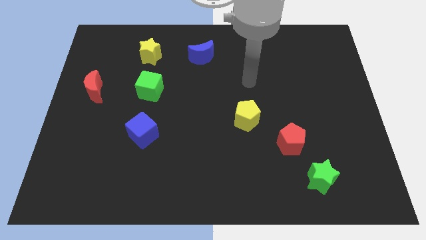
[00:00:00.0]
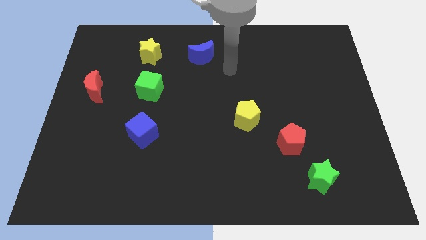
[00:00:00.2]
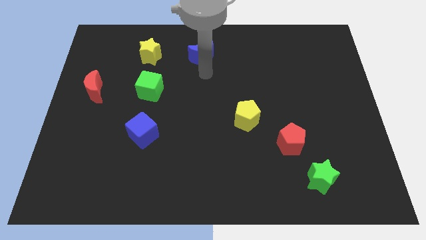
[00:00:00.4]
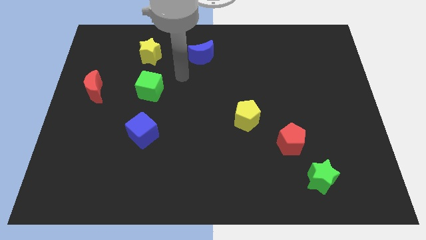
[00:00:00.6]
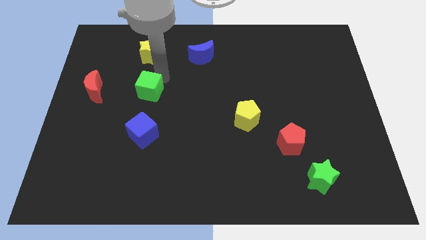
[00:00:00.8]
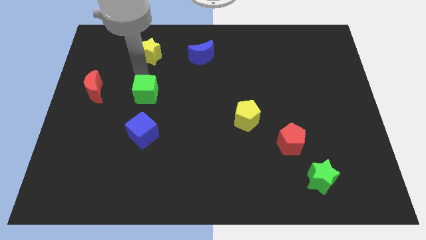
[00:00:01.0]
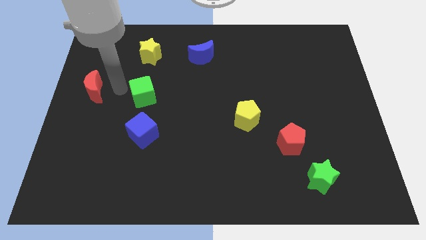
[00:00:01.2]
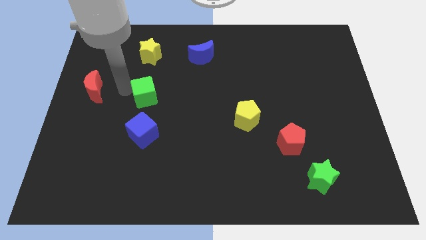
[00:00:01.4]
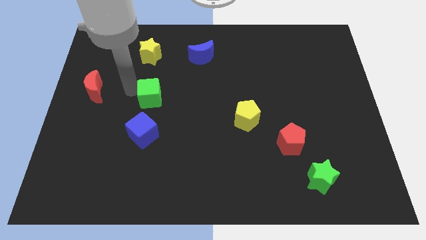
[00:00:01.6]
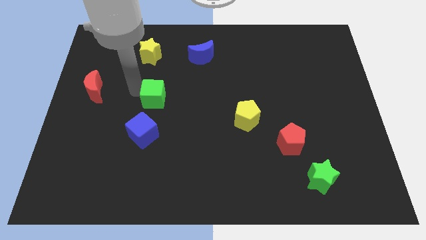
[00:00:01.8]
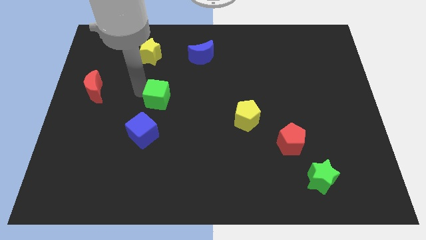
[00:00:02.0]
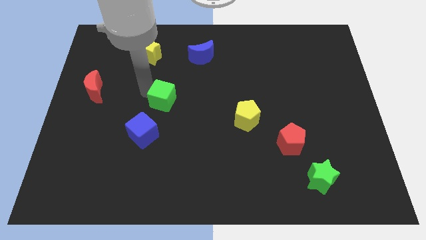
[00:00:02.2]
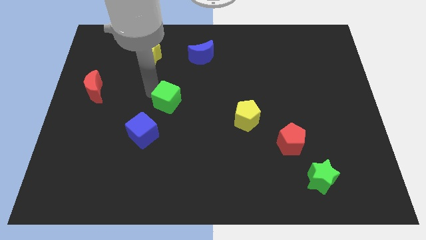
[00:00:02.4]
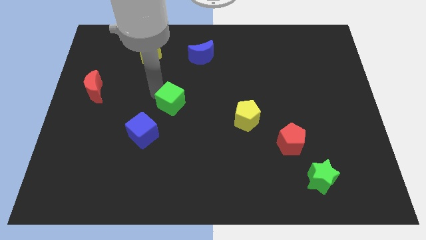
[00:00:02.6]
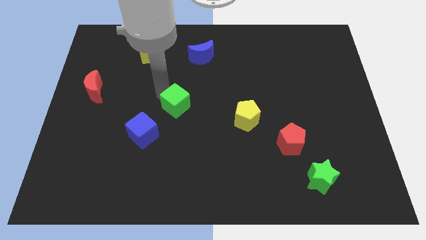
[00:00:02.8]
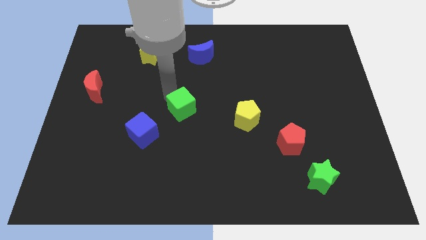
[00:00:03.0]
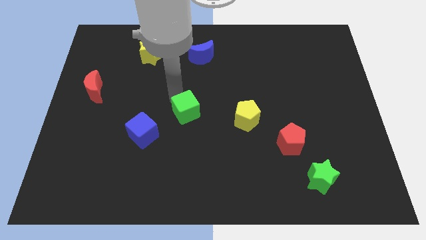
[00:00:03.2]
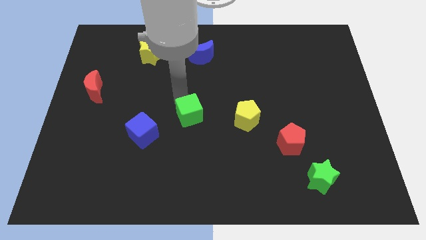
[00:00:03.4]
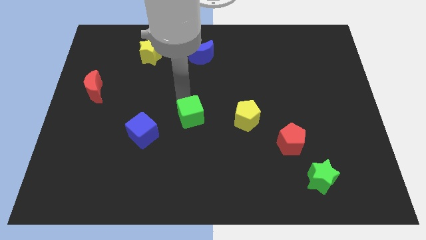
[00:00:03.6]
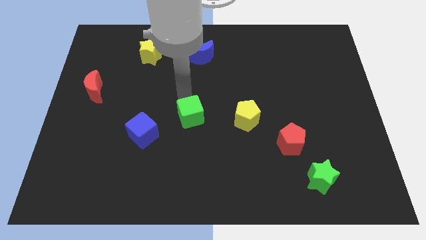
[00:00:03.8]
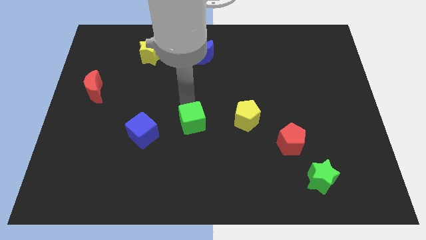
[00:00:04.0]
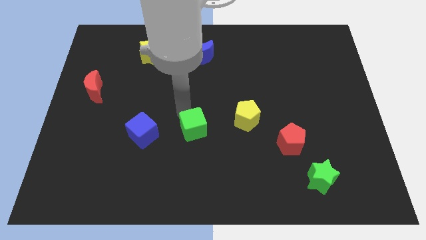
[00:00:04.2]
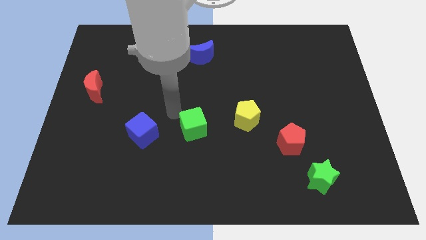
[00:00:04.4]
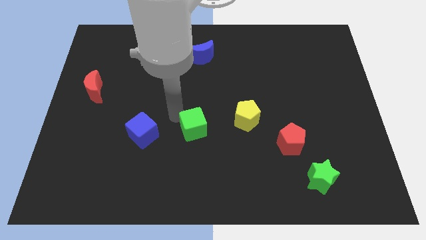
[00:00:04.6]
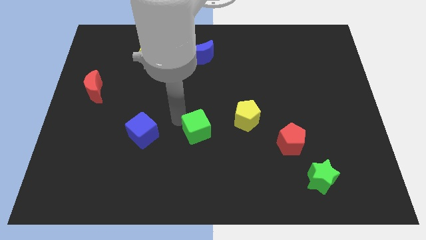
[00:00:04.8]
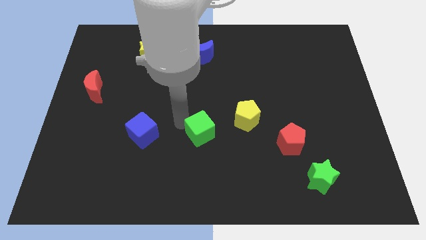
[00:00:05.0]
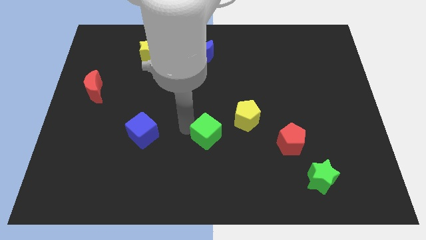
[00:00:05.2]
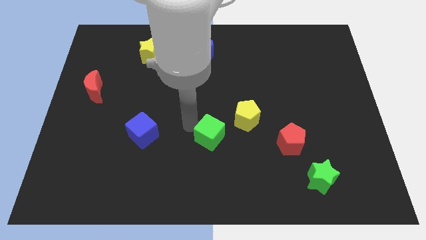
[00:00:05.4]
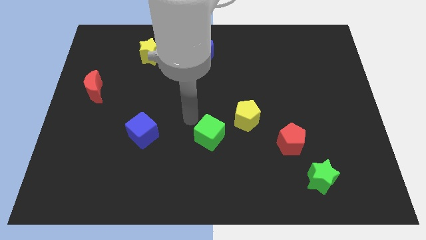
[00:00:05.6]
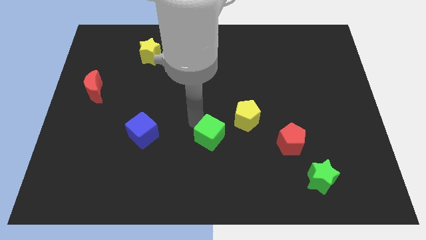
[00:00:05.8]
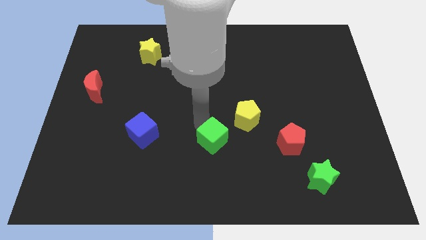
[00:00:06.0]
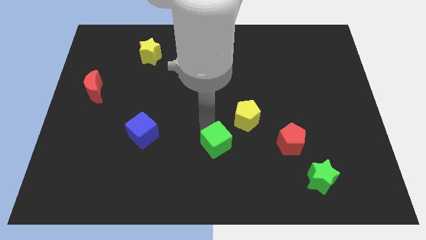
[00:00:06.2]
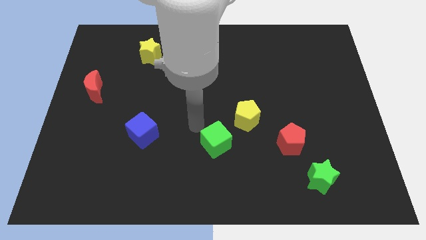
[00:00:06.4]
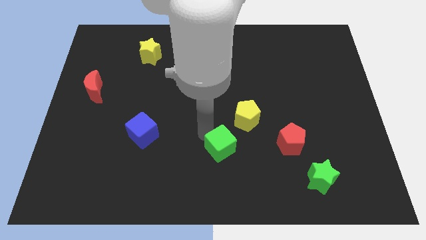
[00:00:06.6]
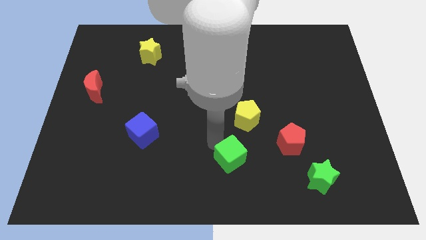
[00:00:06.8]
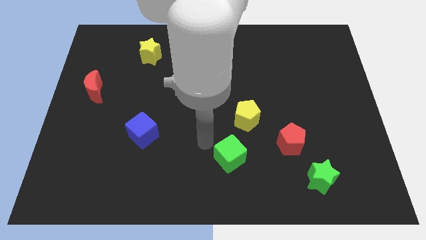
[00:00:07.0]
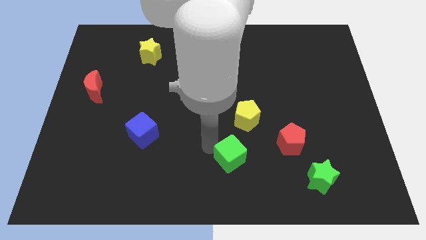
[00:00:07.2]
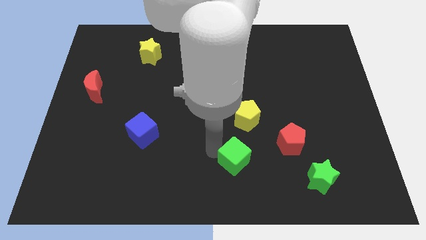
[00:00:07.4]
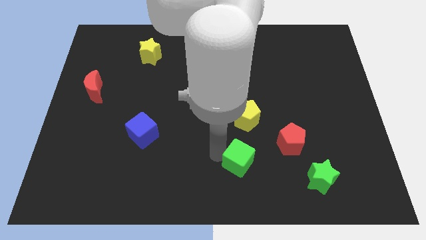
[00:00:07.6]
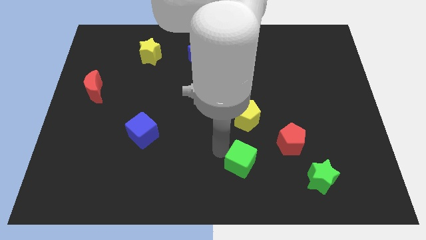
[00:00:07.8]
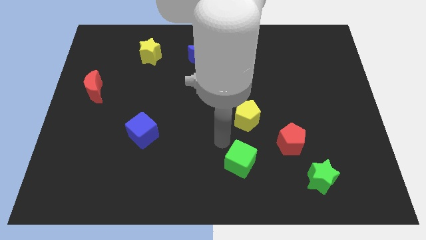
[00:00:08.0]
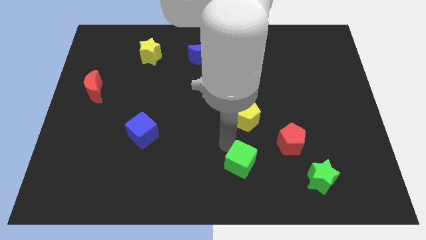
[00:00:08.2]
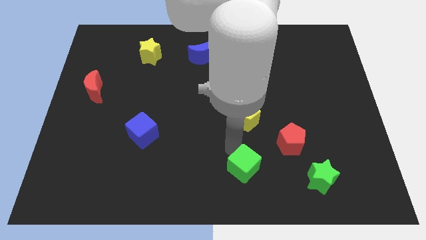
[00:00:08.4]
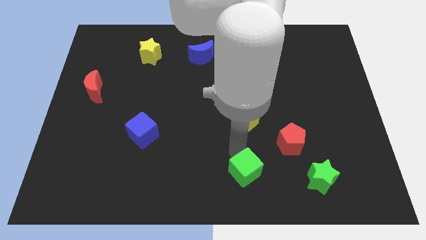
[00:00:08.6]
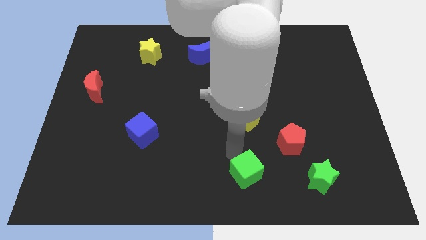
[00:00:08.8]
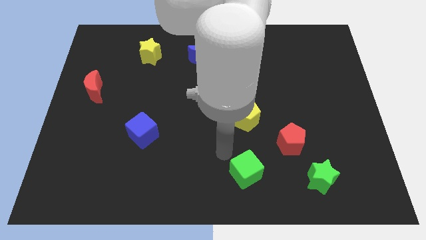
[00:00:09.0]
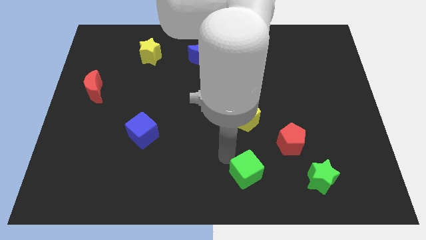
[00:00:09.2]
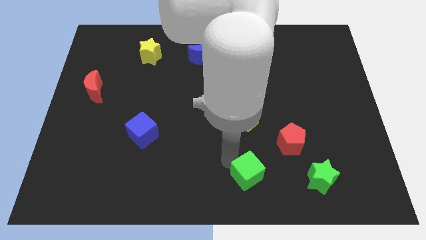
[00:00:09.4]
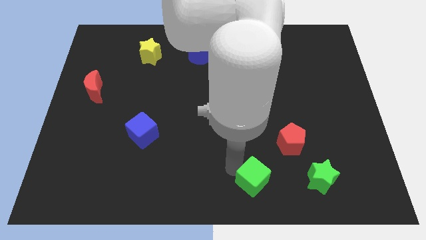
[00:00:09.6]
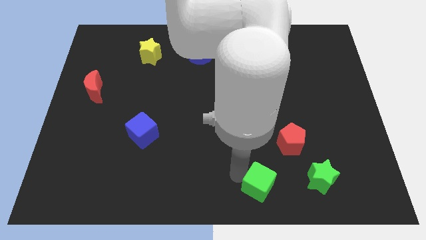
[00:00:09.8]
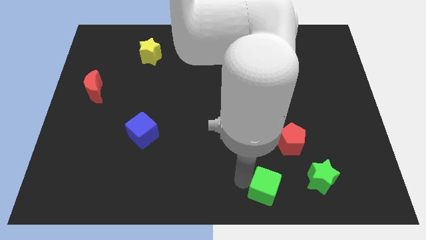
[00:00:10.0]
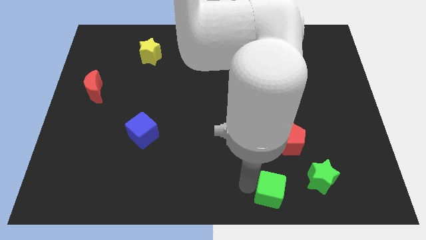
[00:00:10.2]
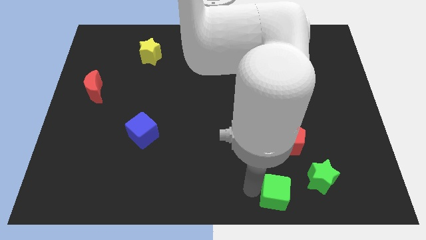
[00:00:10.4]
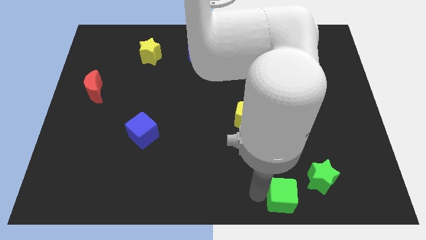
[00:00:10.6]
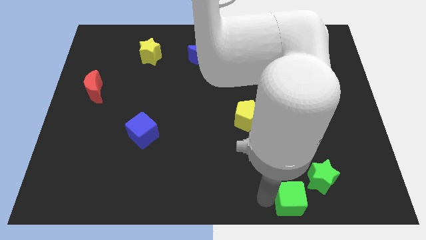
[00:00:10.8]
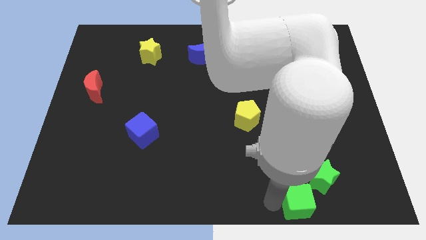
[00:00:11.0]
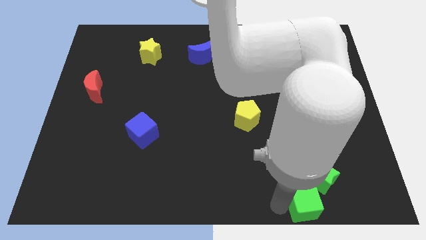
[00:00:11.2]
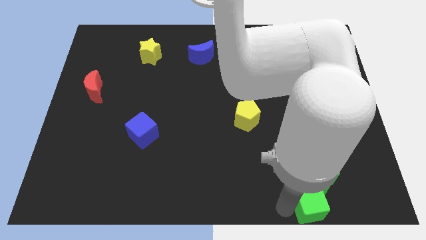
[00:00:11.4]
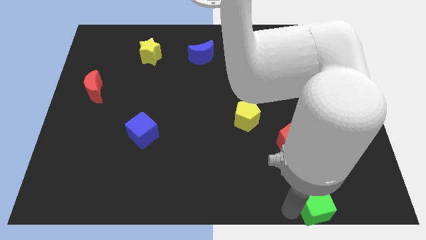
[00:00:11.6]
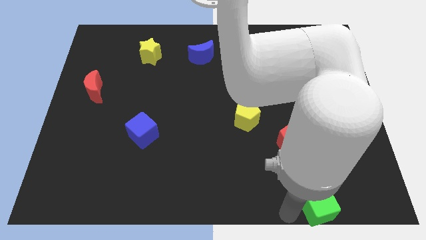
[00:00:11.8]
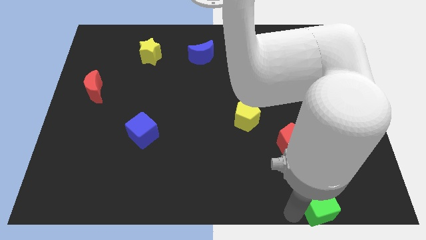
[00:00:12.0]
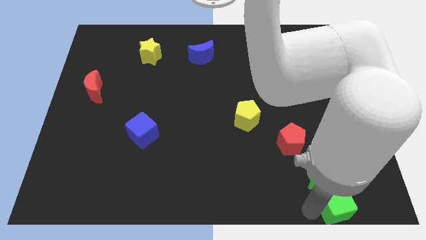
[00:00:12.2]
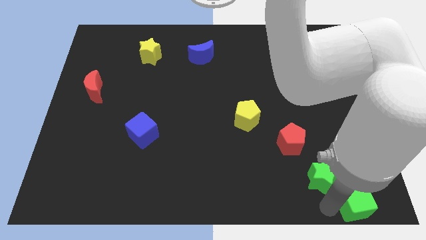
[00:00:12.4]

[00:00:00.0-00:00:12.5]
slide the green cube to the lower right corner
